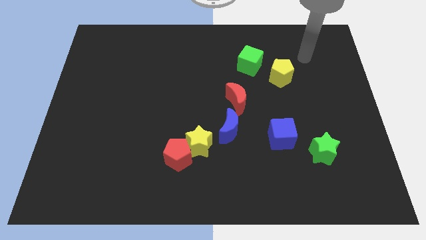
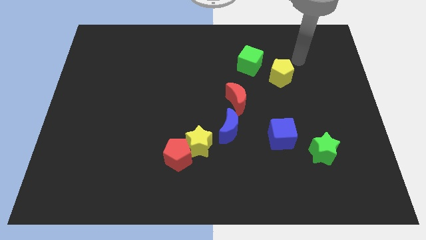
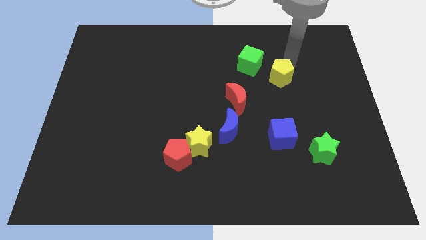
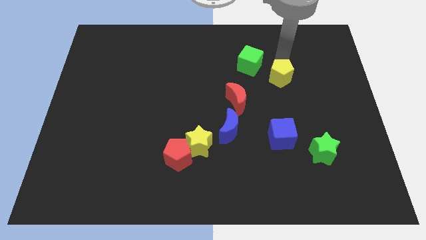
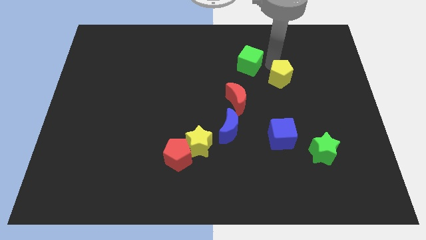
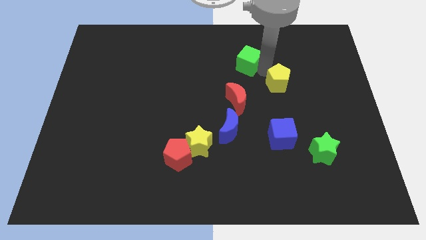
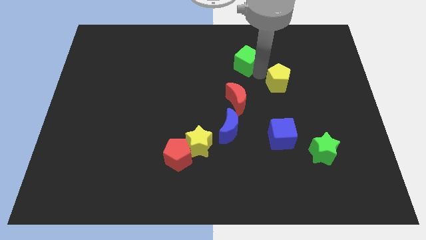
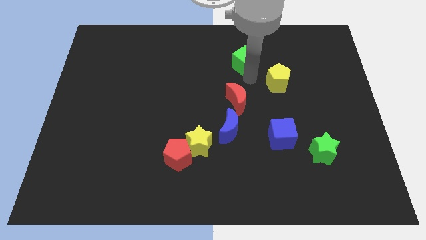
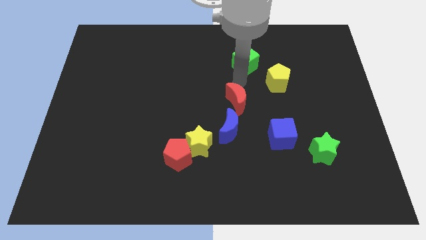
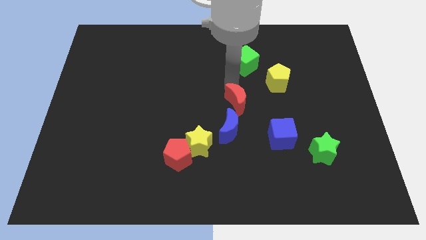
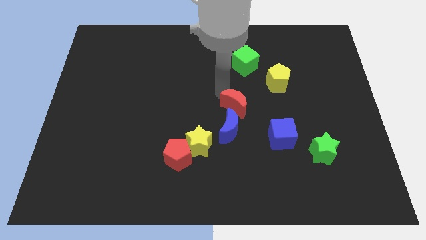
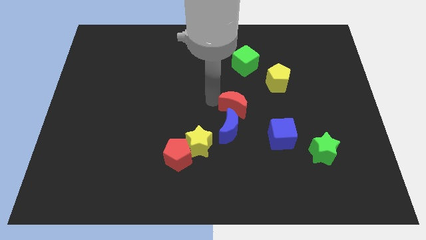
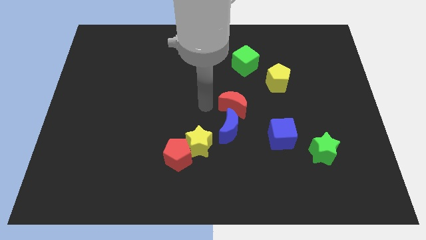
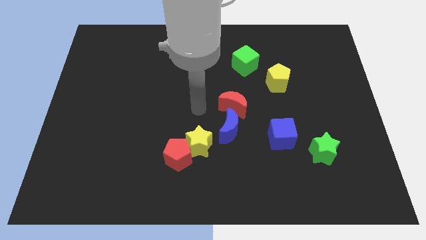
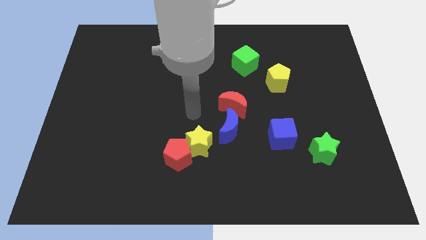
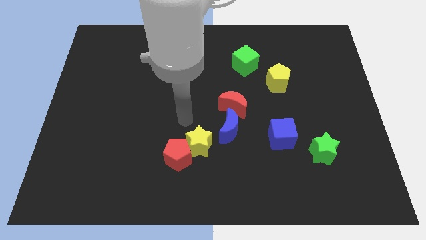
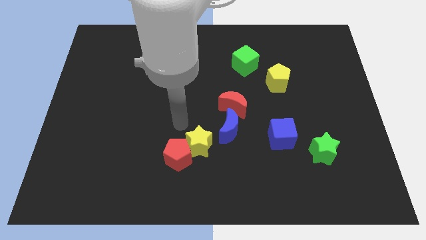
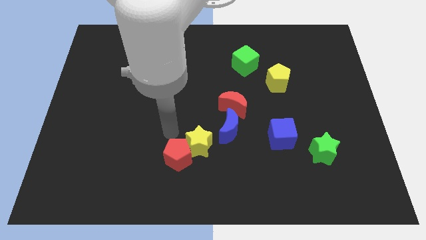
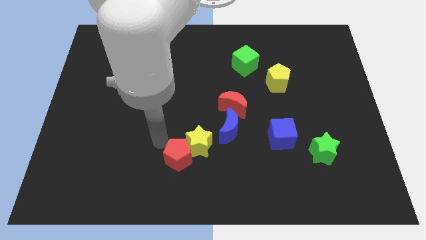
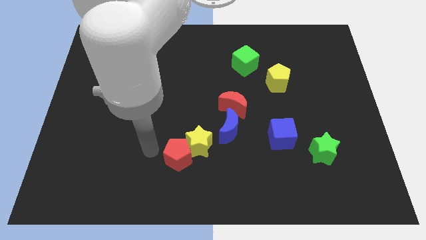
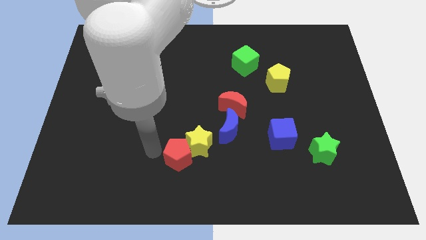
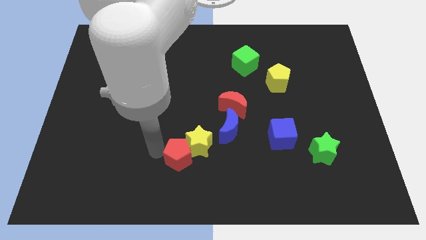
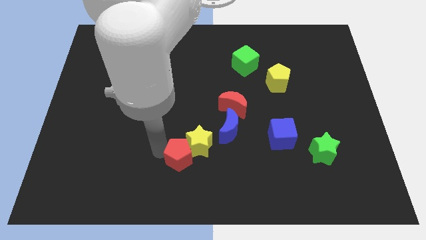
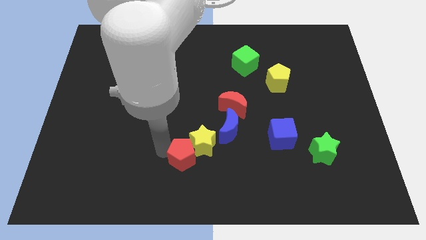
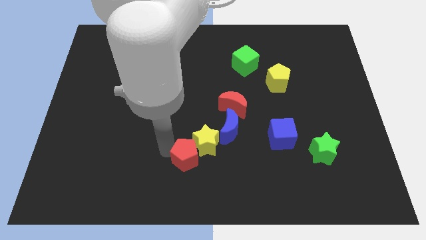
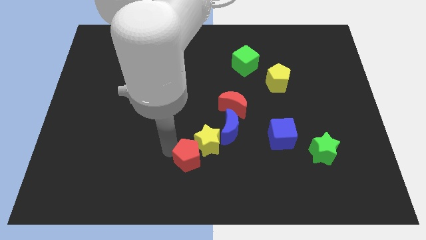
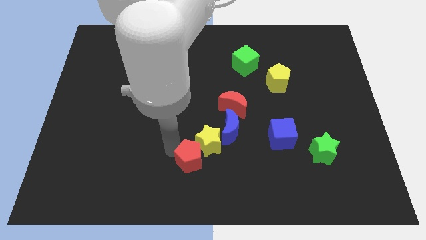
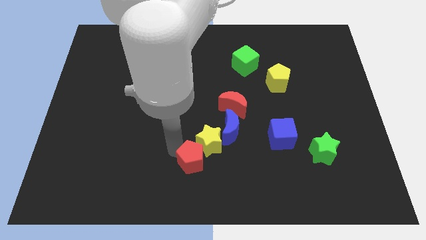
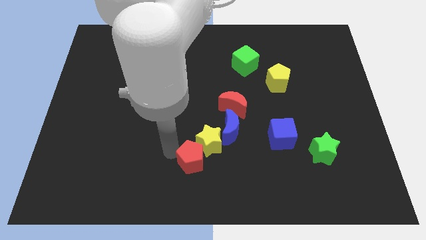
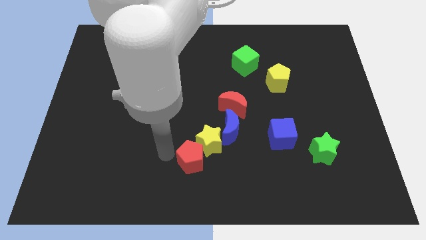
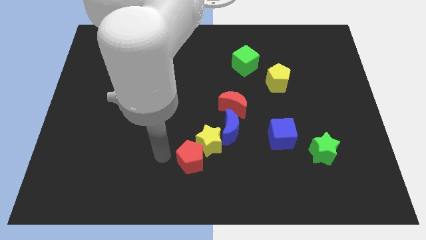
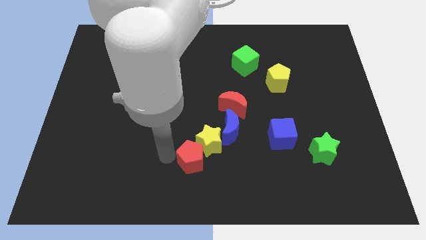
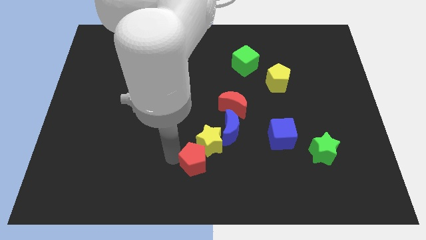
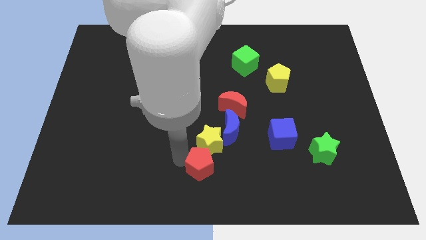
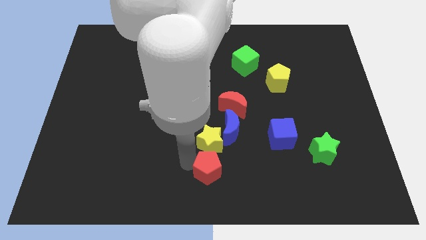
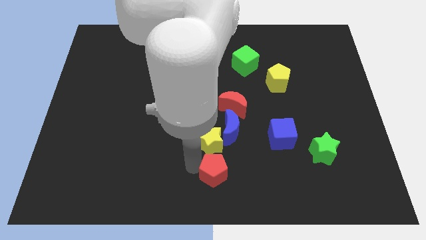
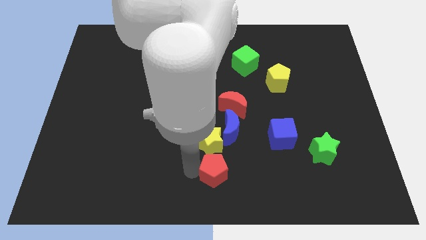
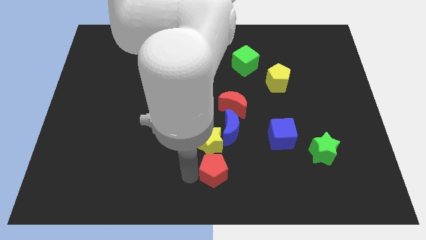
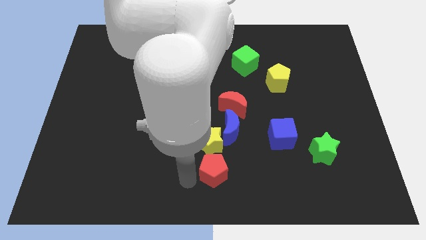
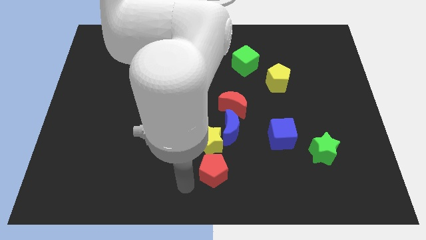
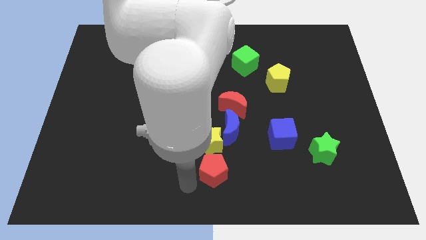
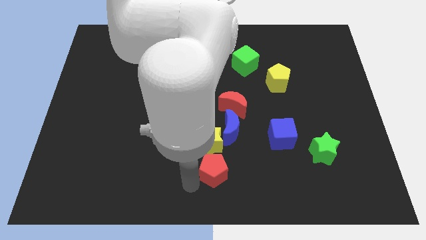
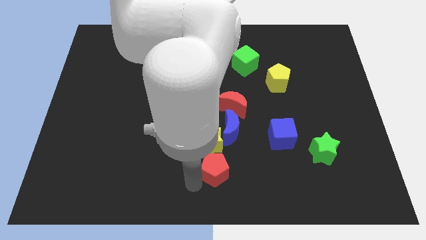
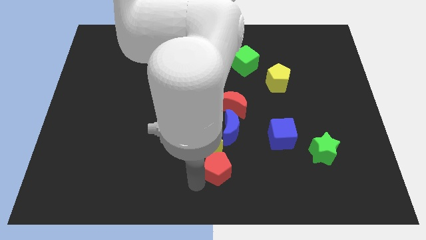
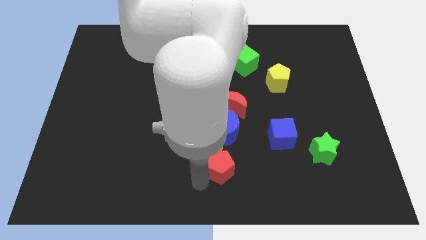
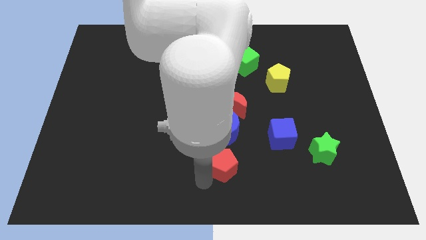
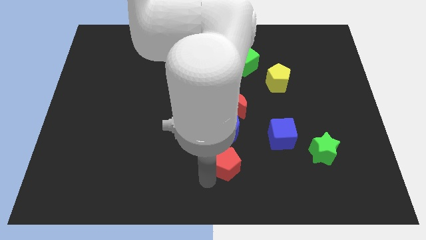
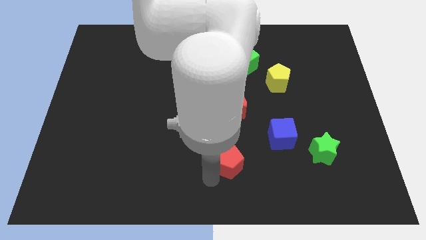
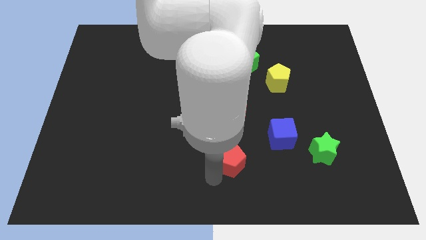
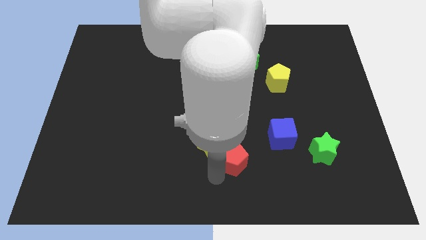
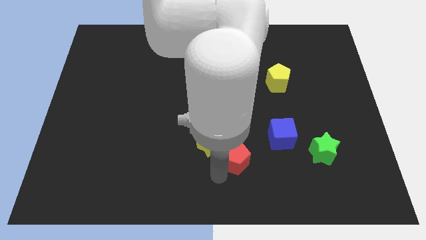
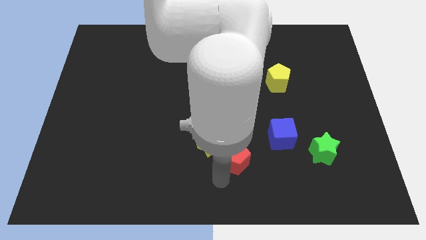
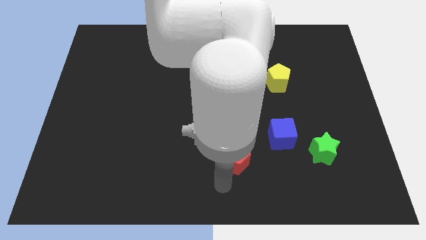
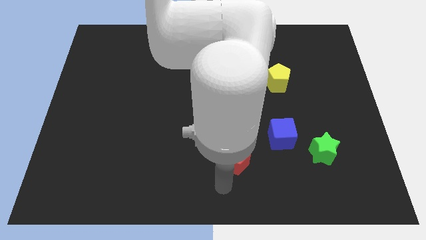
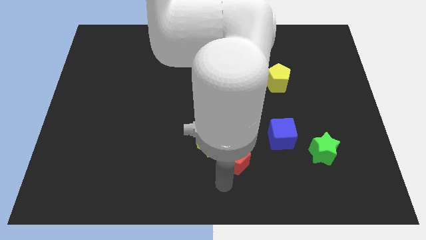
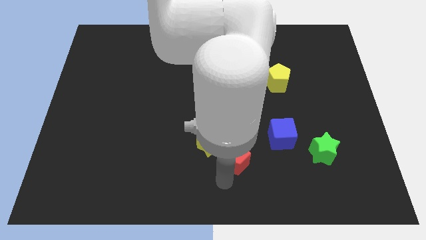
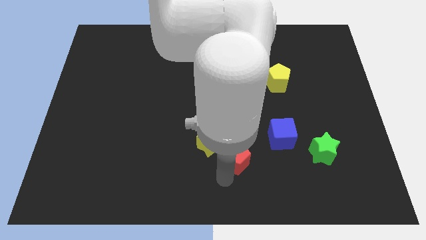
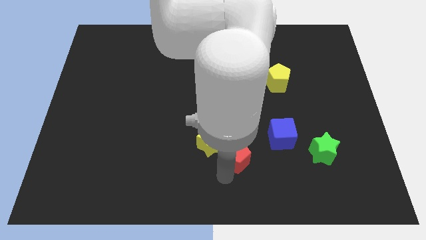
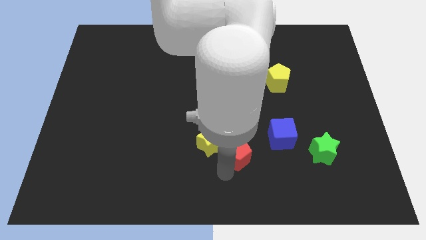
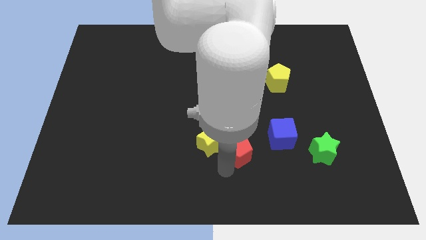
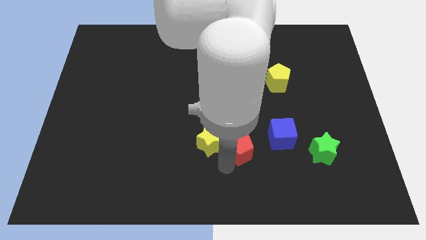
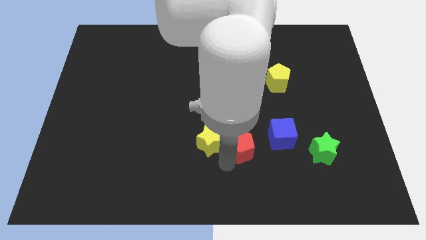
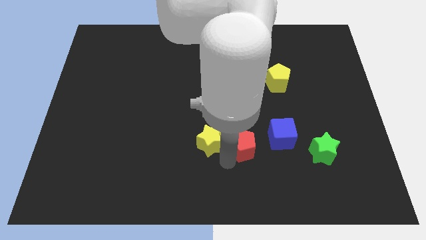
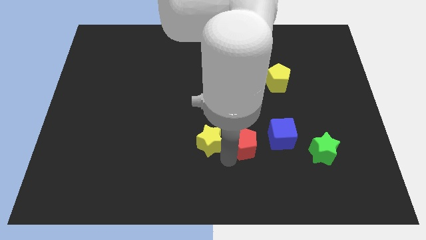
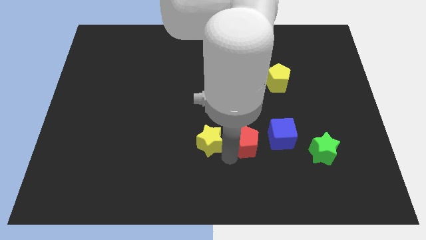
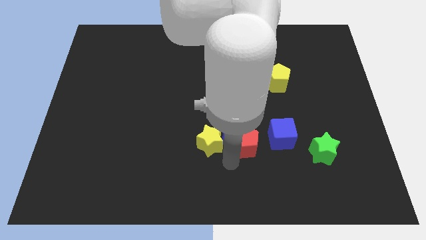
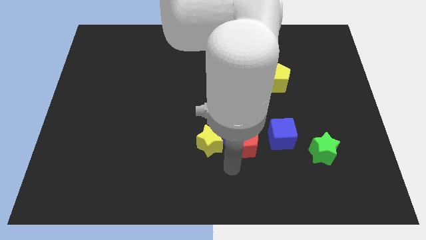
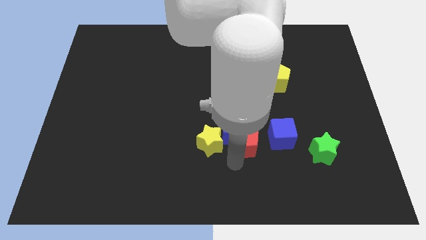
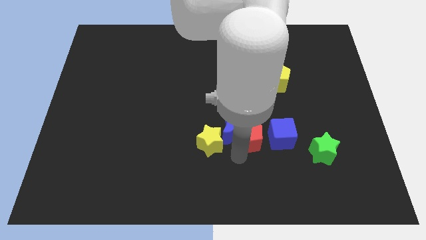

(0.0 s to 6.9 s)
put the red pentagon to the bottom right side of the red moon
